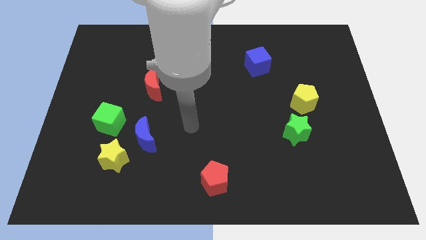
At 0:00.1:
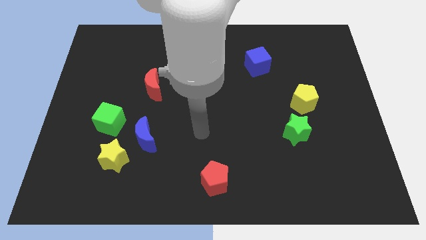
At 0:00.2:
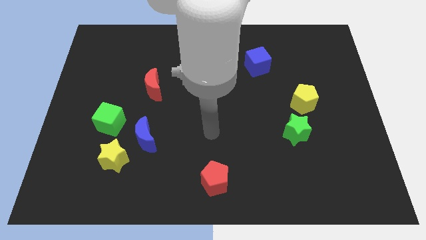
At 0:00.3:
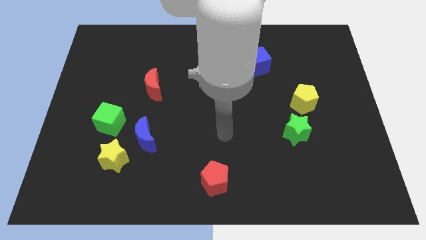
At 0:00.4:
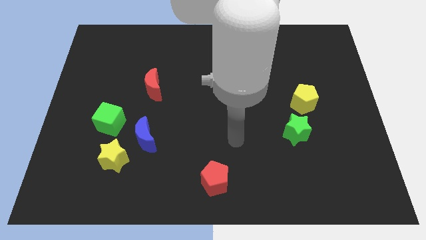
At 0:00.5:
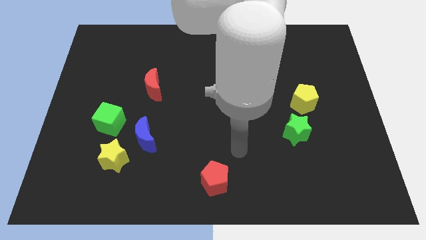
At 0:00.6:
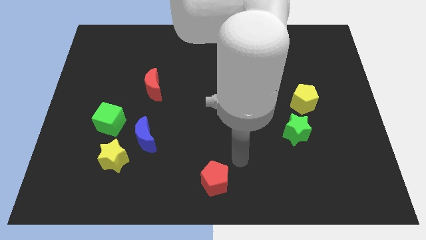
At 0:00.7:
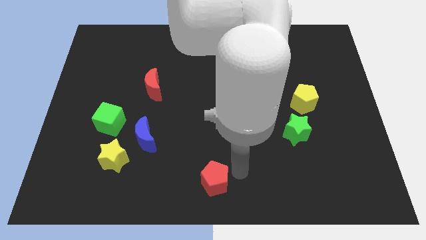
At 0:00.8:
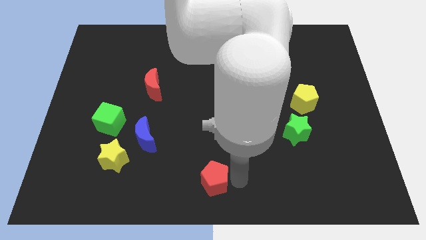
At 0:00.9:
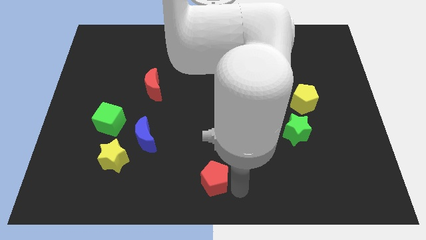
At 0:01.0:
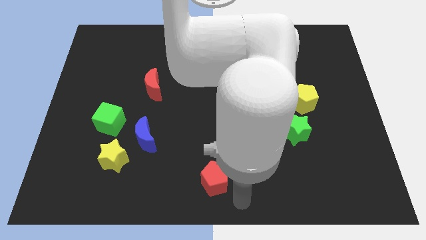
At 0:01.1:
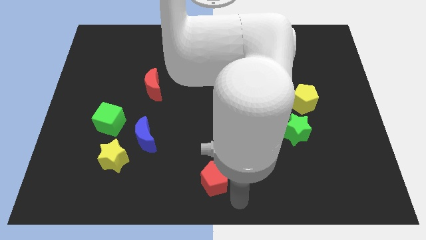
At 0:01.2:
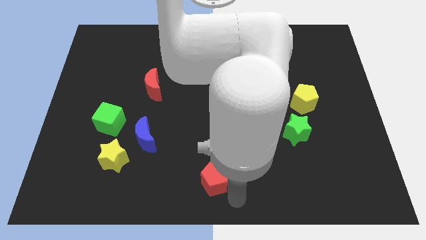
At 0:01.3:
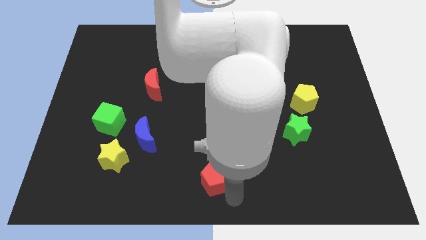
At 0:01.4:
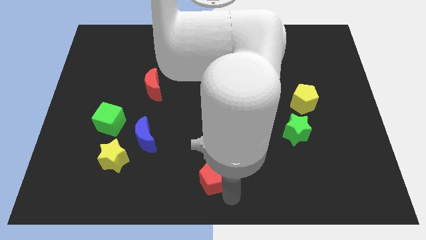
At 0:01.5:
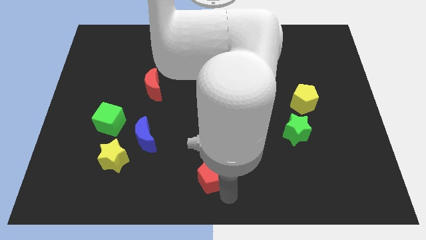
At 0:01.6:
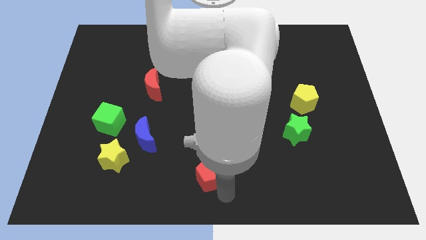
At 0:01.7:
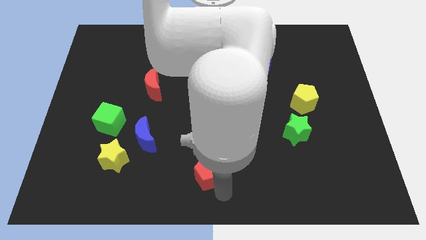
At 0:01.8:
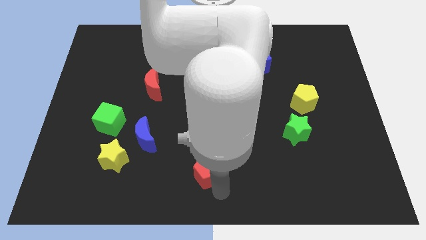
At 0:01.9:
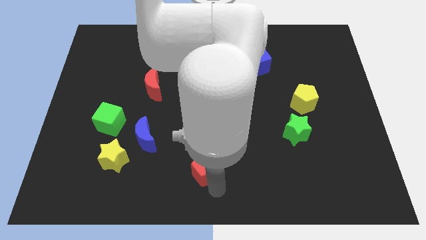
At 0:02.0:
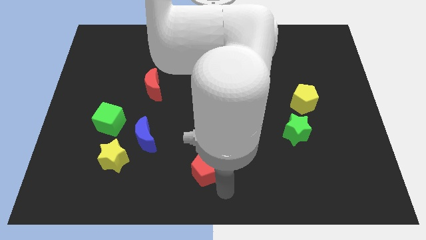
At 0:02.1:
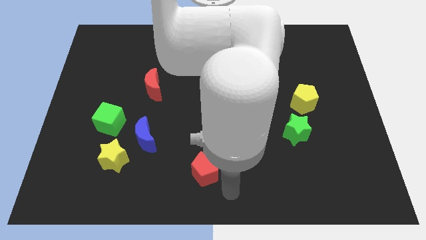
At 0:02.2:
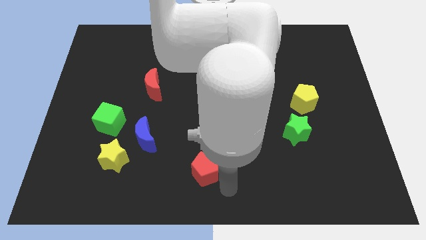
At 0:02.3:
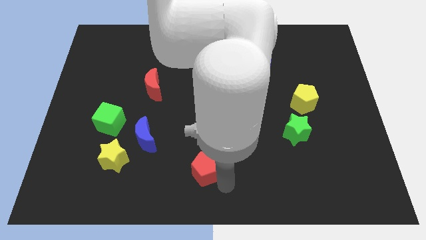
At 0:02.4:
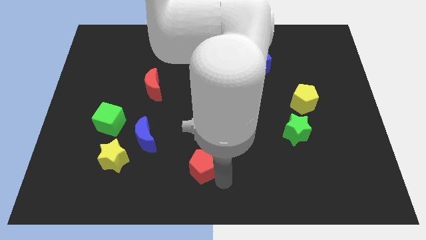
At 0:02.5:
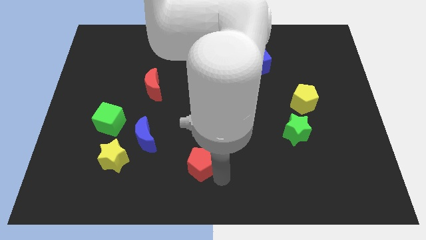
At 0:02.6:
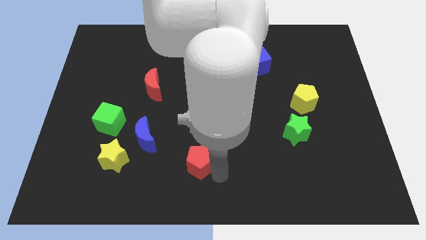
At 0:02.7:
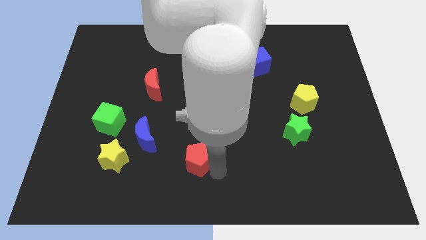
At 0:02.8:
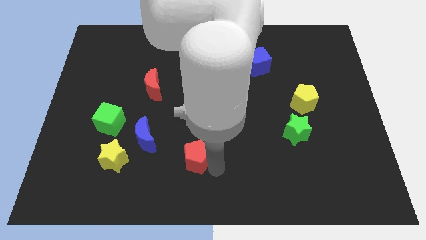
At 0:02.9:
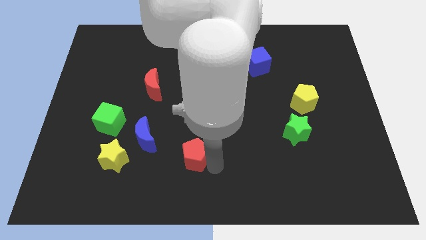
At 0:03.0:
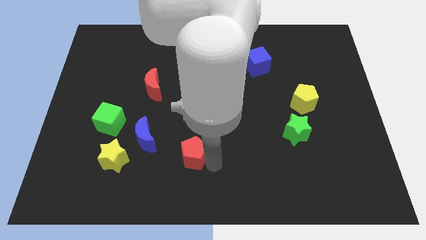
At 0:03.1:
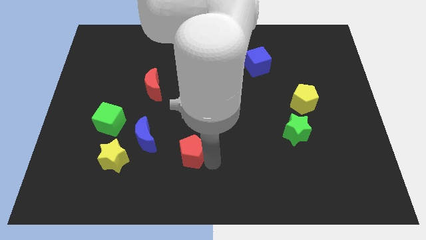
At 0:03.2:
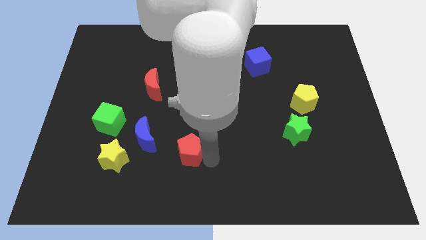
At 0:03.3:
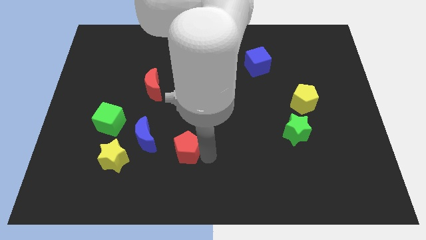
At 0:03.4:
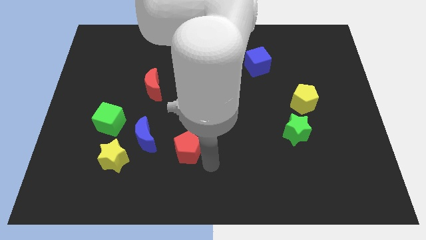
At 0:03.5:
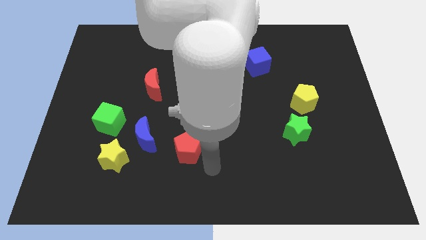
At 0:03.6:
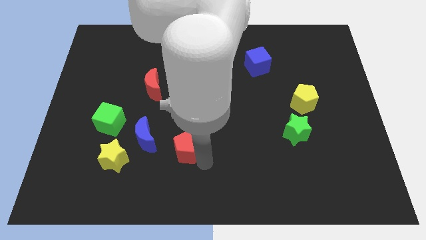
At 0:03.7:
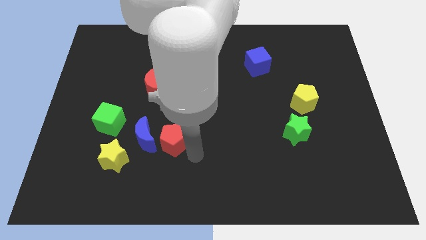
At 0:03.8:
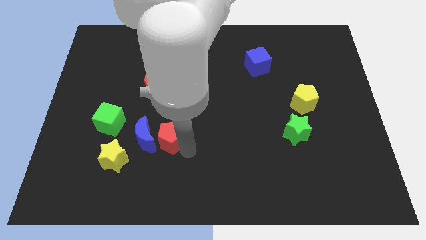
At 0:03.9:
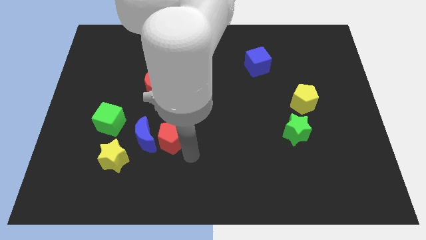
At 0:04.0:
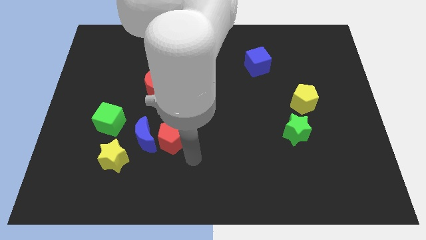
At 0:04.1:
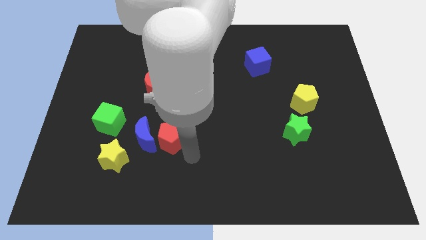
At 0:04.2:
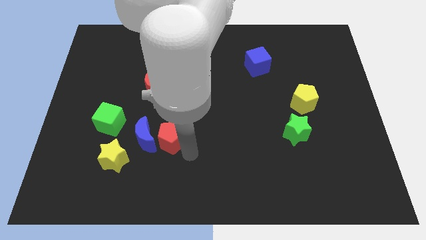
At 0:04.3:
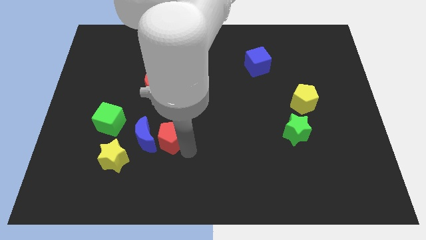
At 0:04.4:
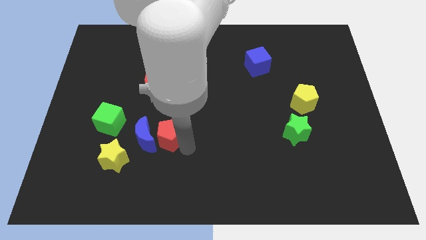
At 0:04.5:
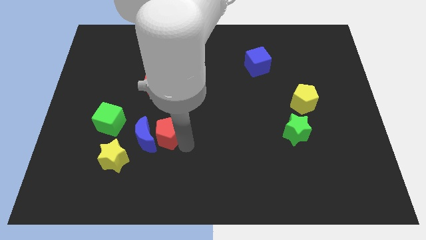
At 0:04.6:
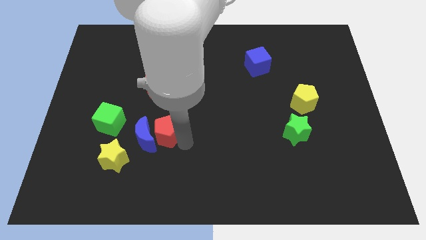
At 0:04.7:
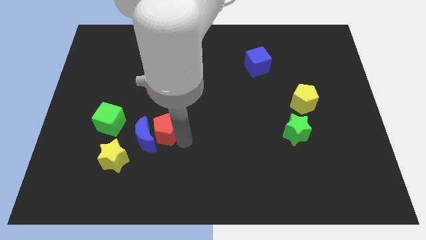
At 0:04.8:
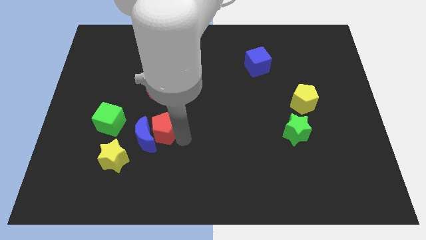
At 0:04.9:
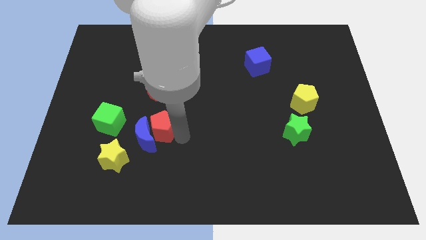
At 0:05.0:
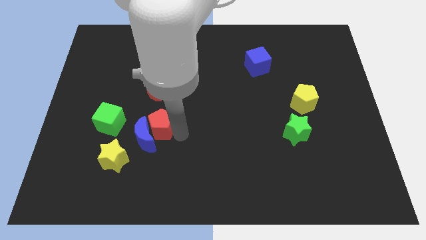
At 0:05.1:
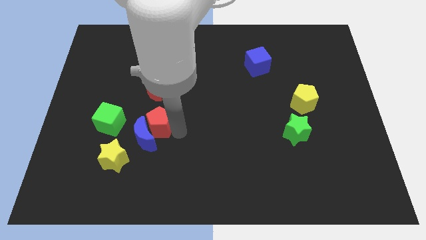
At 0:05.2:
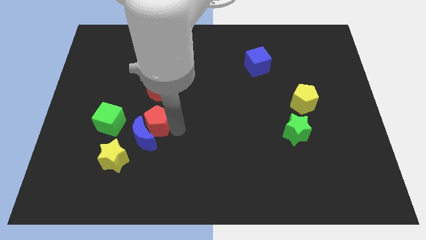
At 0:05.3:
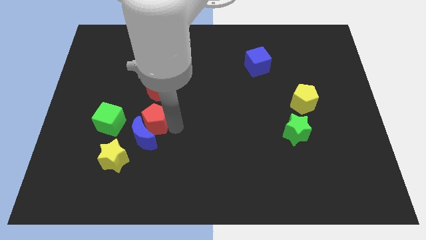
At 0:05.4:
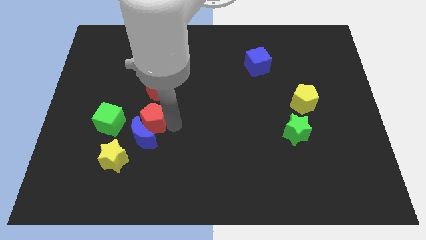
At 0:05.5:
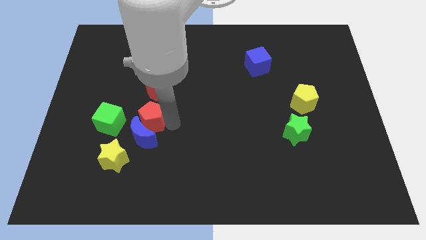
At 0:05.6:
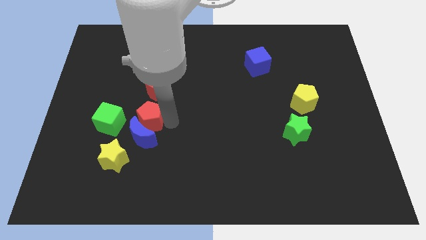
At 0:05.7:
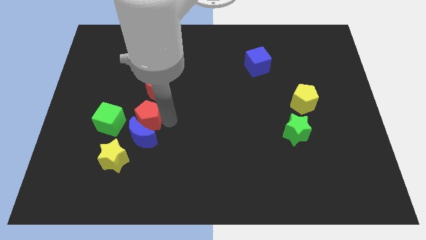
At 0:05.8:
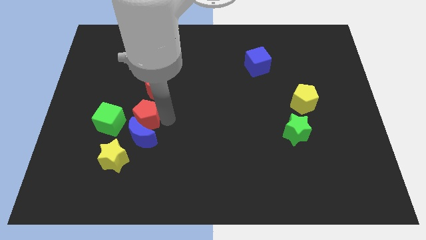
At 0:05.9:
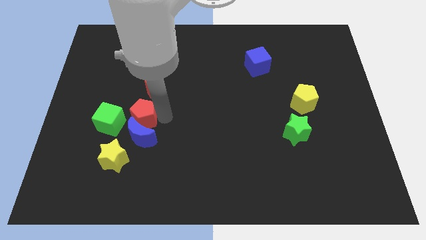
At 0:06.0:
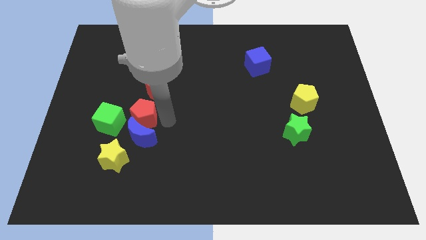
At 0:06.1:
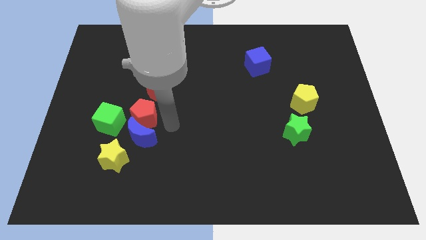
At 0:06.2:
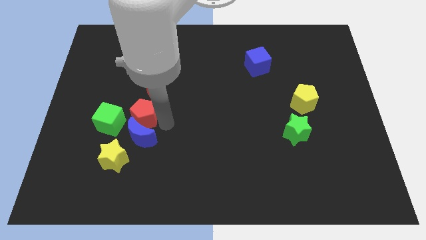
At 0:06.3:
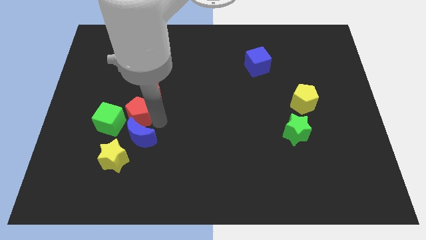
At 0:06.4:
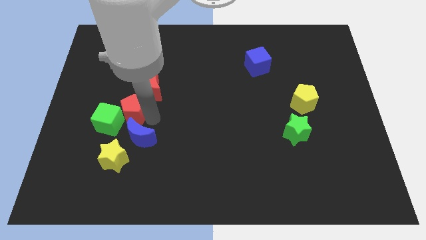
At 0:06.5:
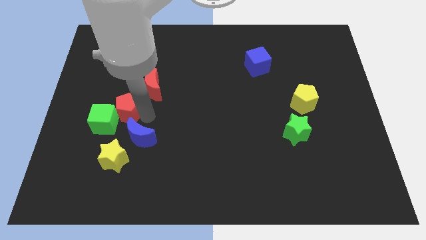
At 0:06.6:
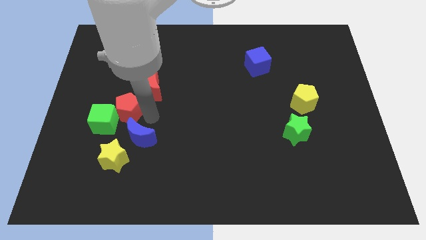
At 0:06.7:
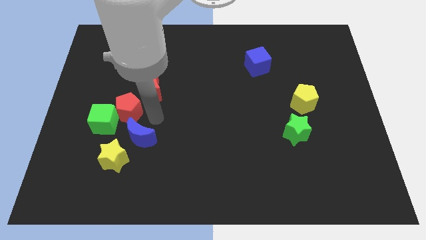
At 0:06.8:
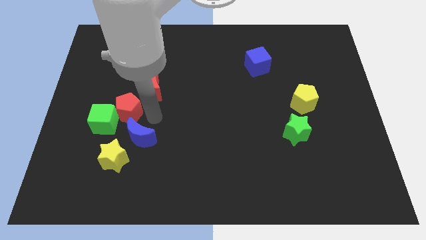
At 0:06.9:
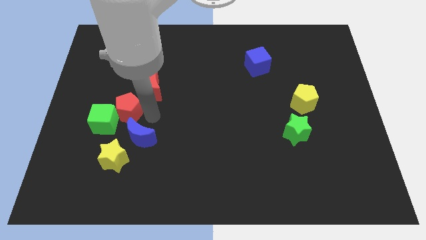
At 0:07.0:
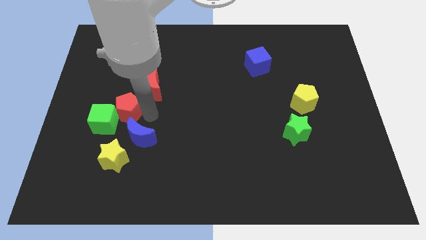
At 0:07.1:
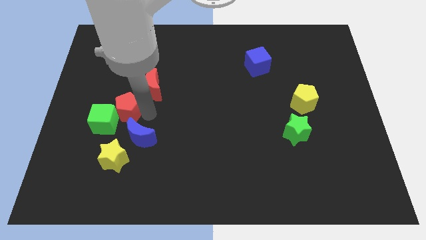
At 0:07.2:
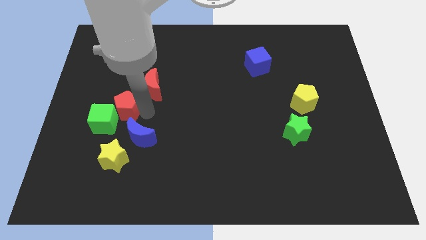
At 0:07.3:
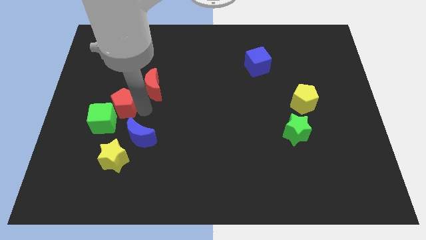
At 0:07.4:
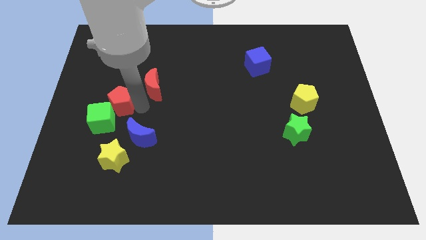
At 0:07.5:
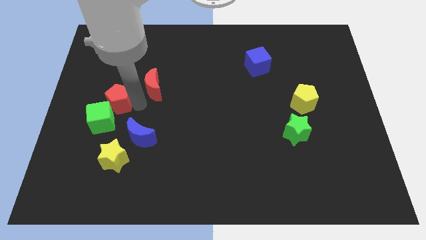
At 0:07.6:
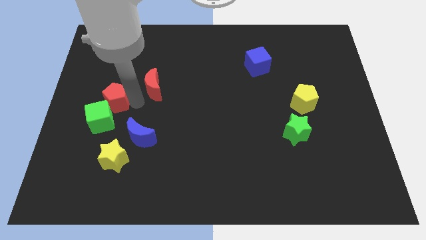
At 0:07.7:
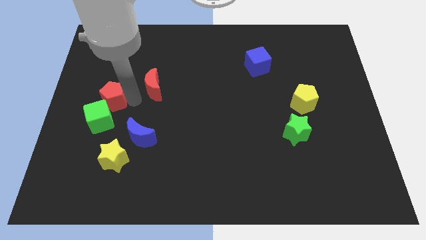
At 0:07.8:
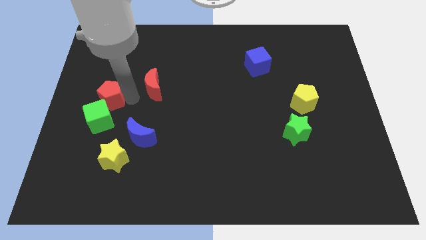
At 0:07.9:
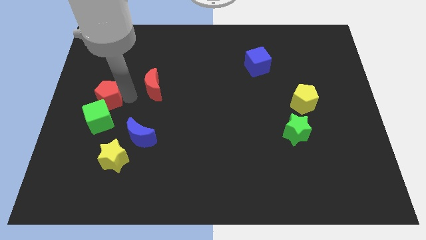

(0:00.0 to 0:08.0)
put the red pentagon to the center left
